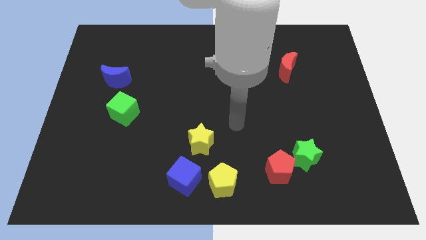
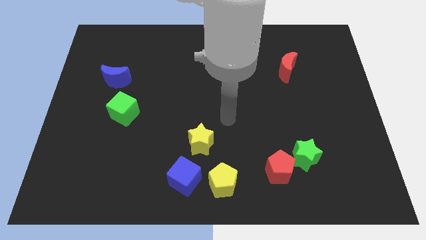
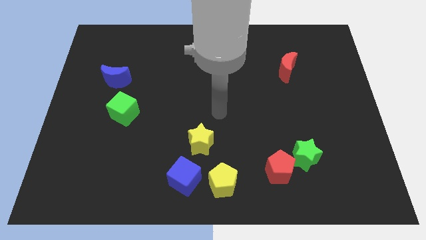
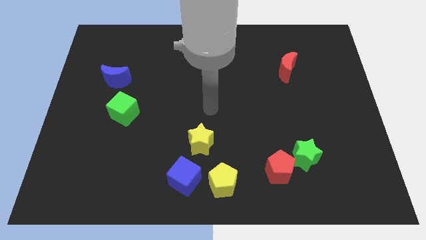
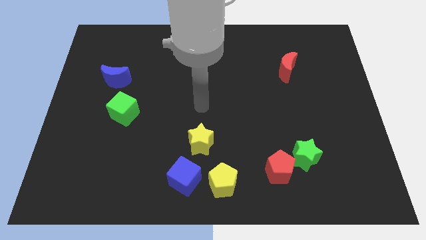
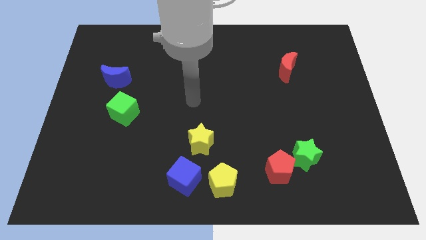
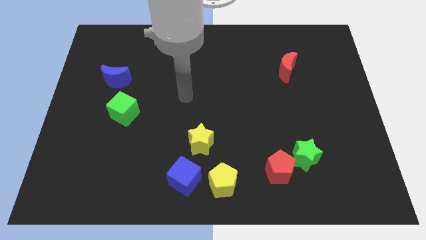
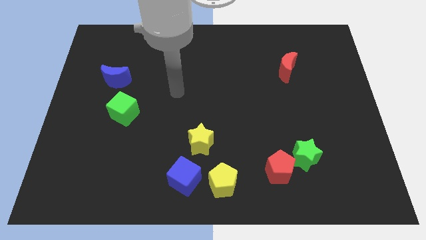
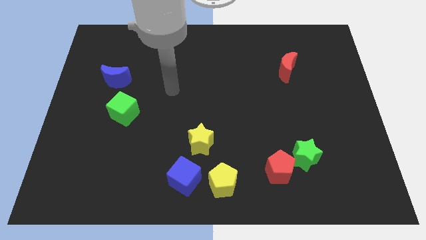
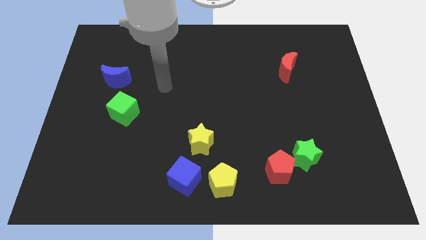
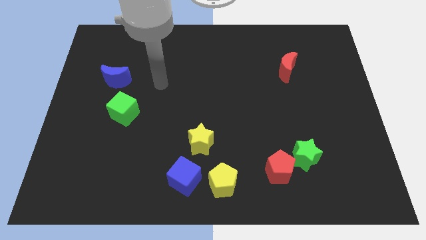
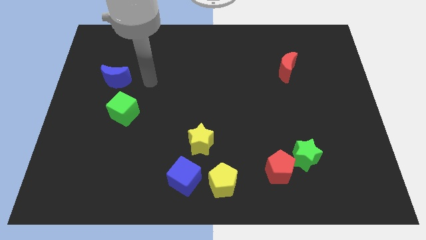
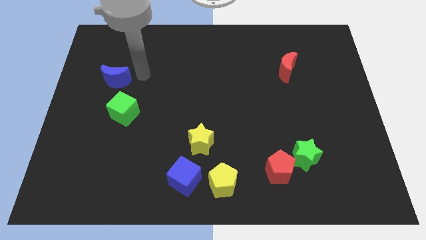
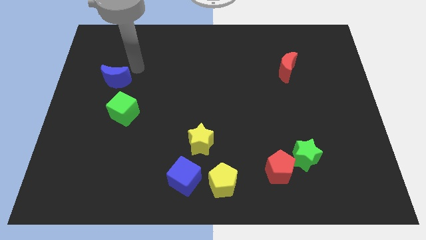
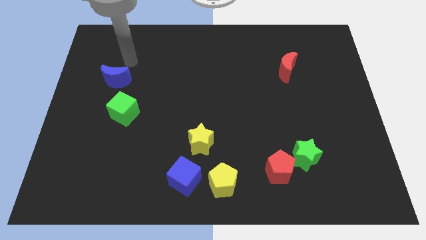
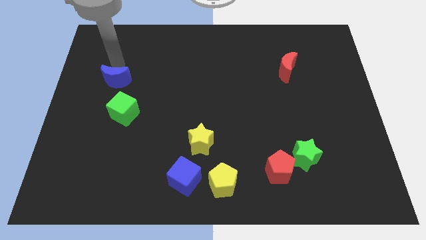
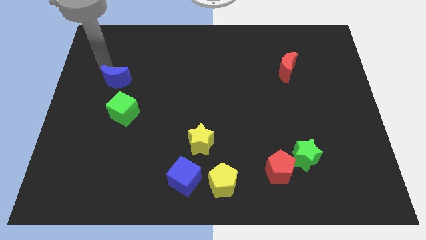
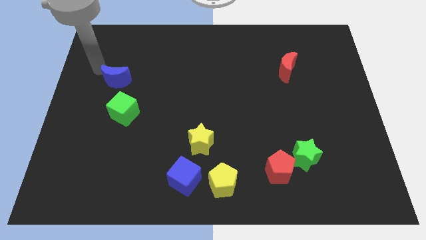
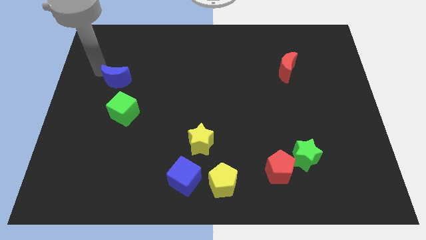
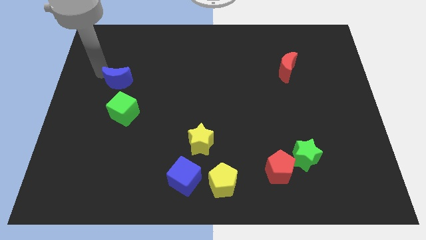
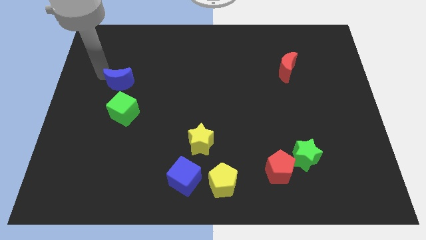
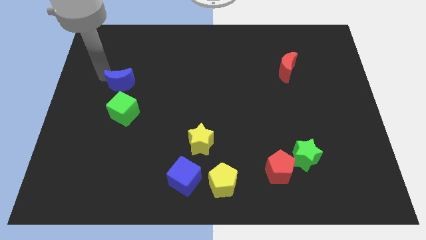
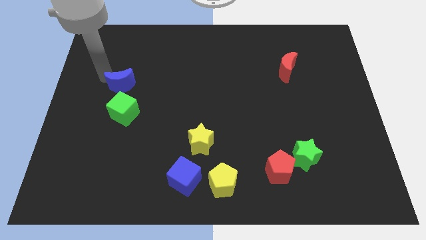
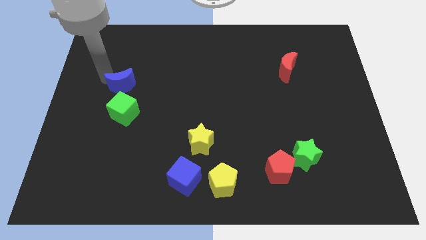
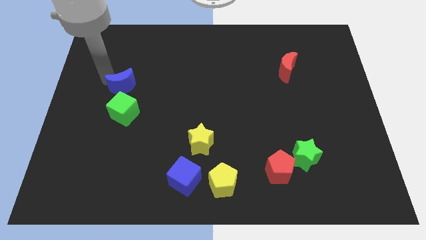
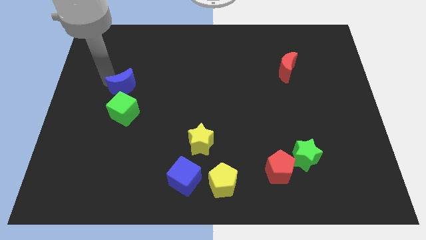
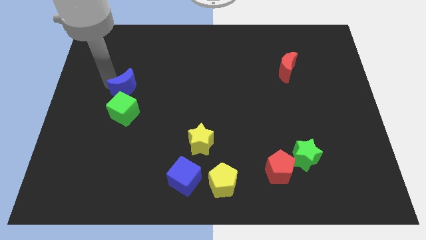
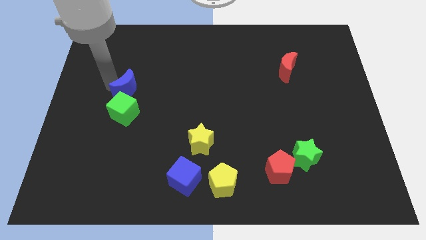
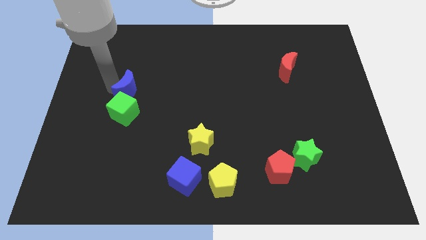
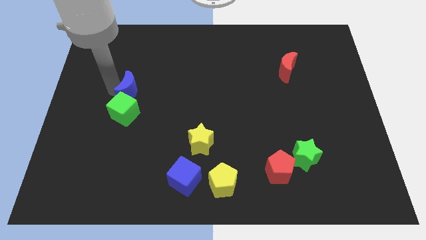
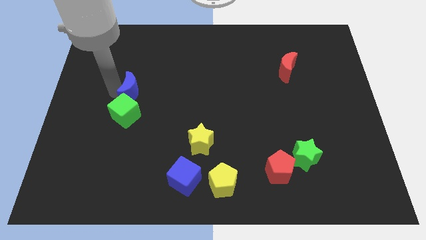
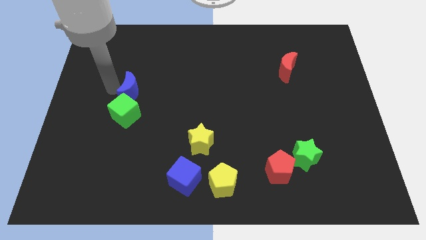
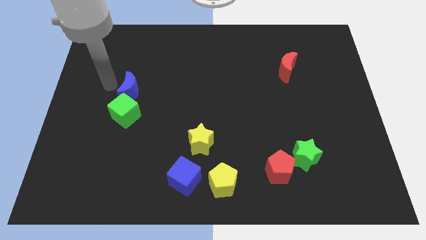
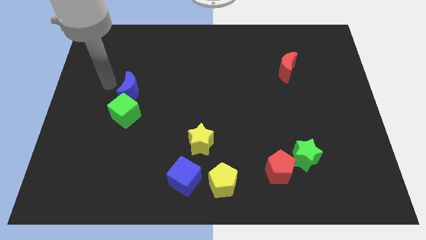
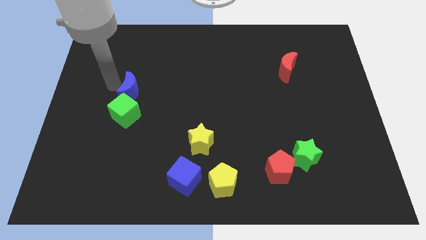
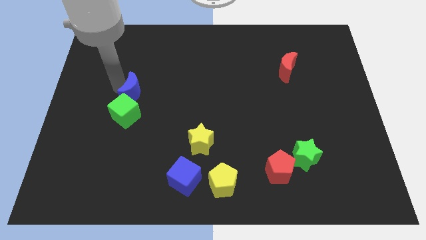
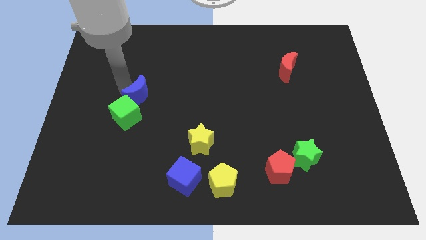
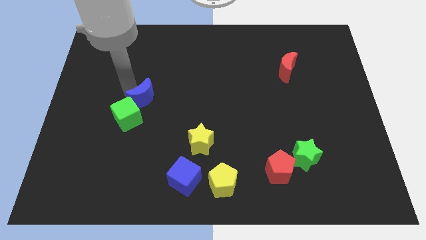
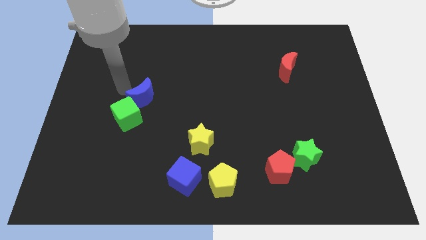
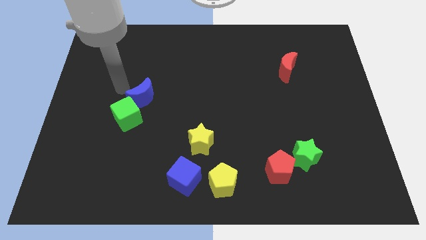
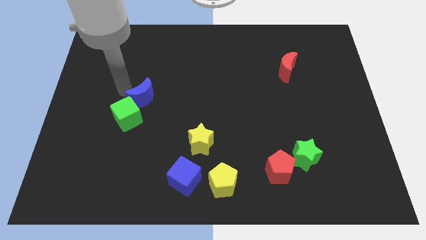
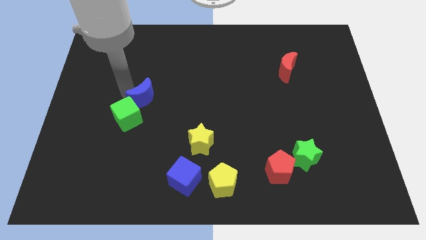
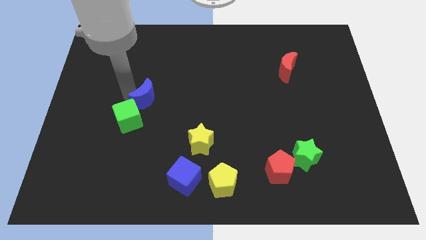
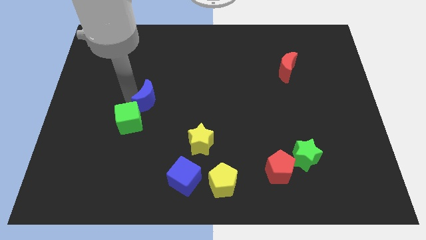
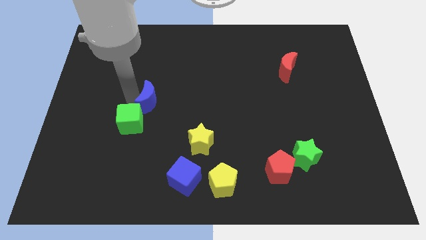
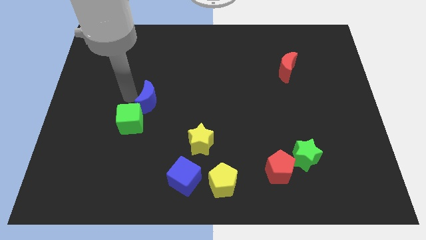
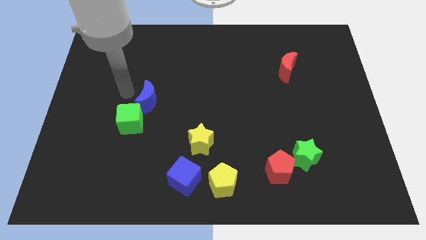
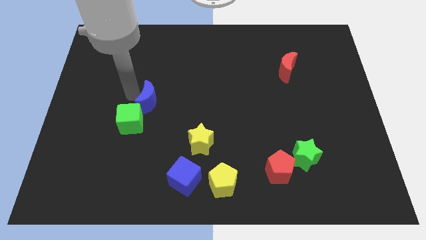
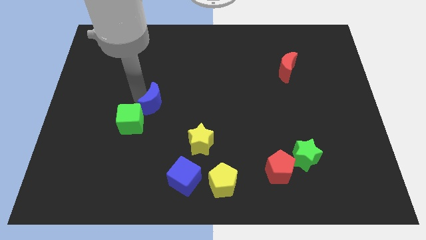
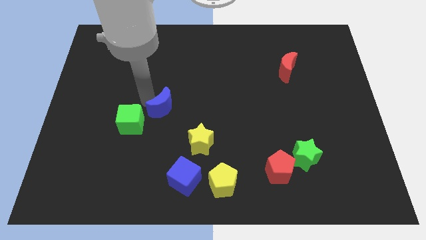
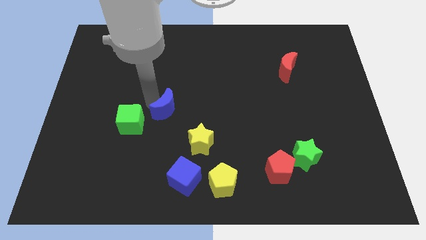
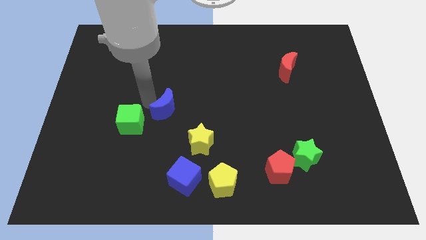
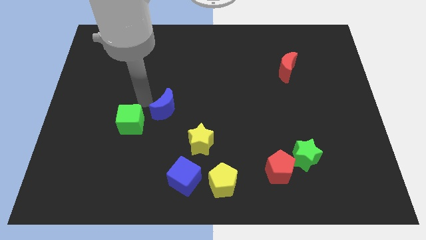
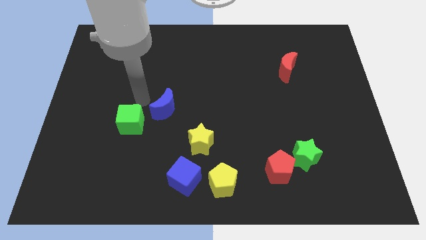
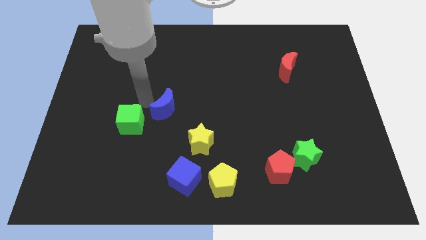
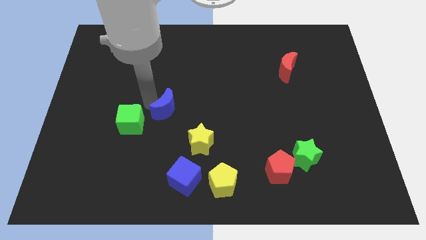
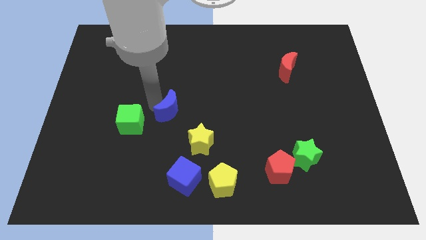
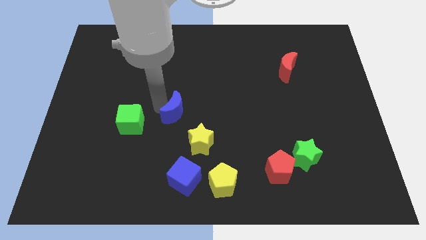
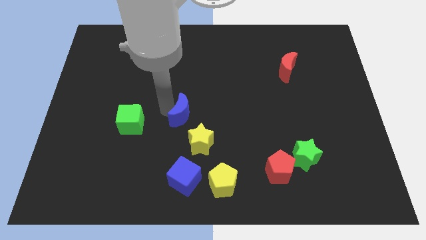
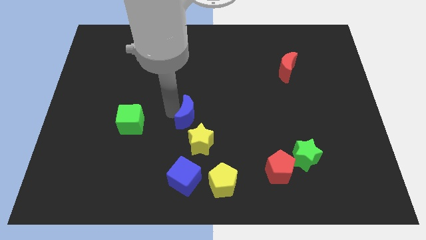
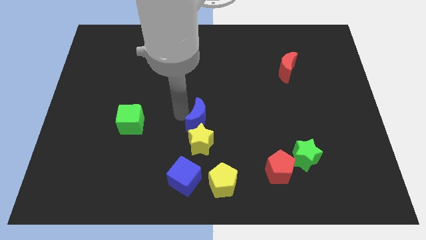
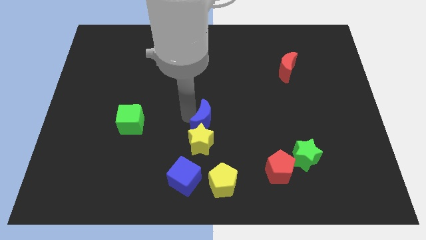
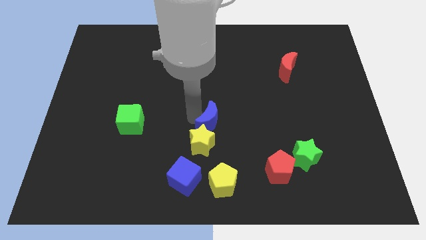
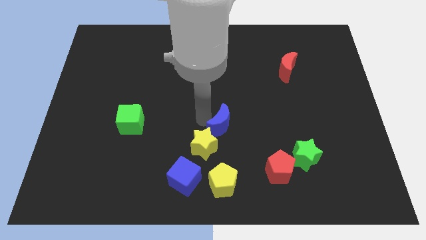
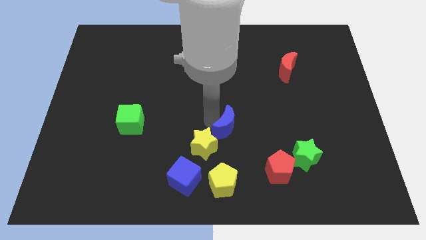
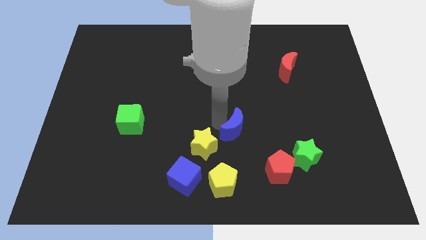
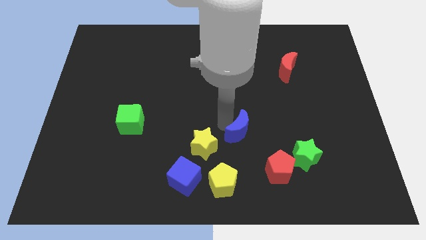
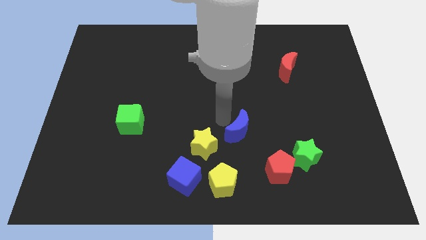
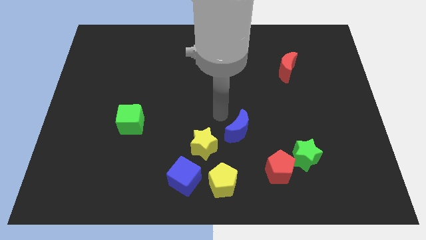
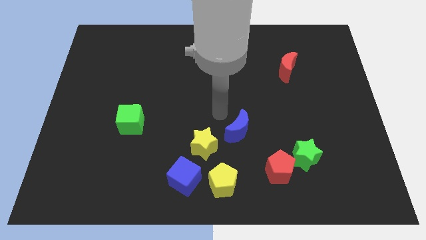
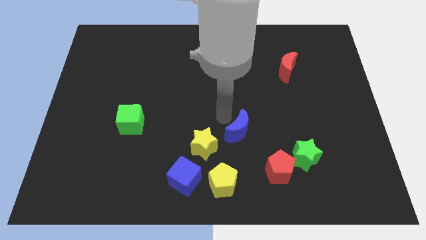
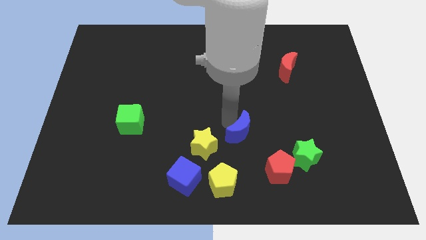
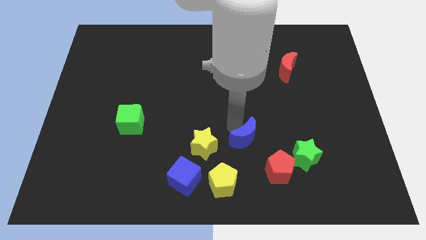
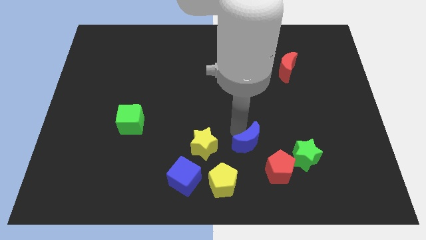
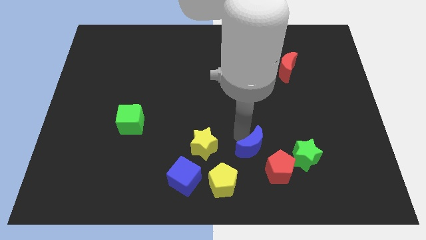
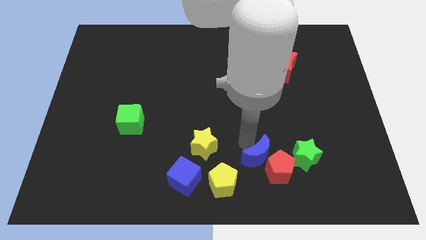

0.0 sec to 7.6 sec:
push the blue moon next to the red pentagon
